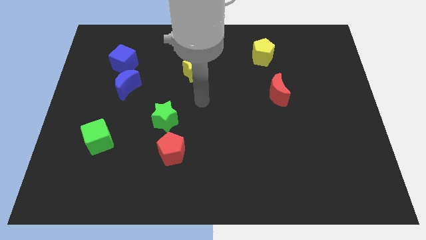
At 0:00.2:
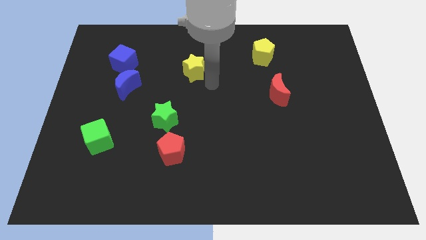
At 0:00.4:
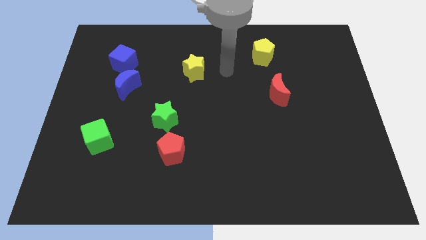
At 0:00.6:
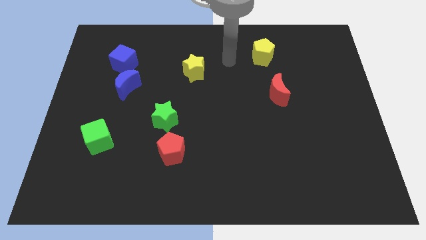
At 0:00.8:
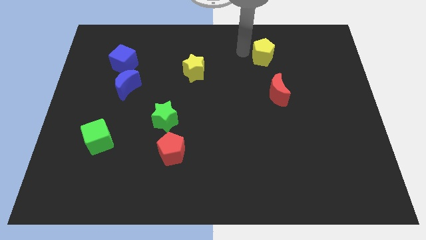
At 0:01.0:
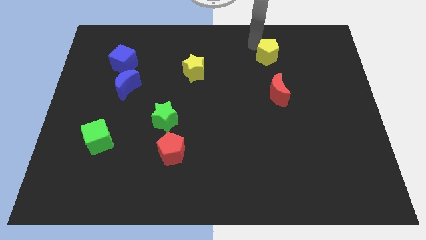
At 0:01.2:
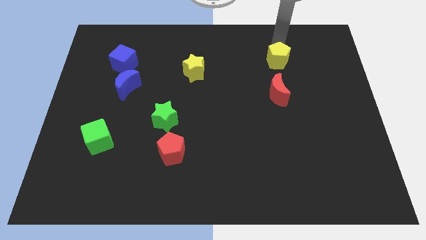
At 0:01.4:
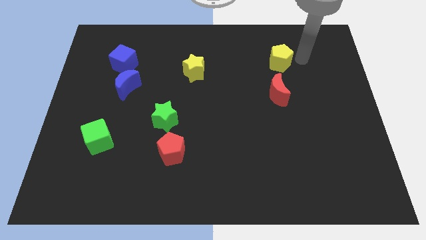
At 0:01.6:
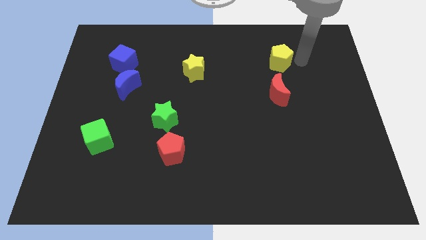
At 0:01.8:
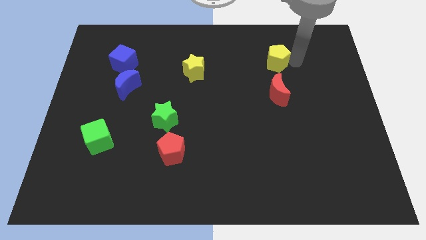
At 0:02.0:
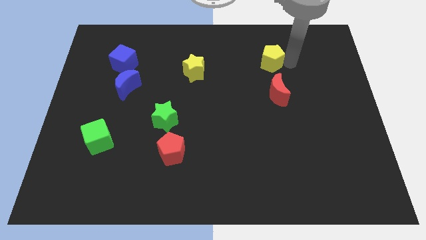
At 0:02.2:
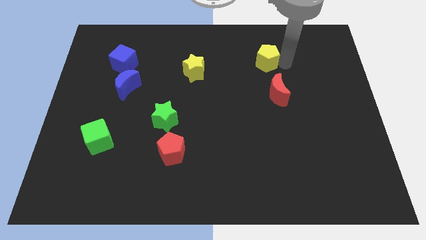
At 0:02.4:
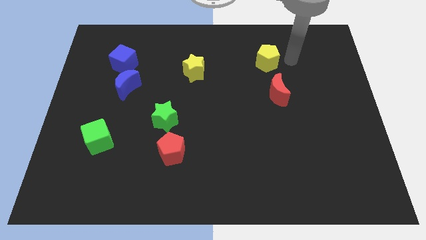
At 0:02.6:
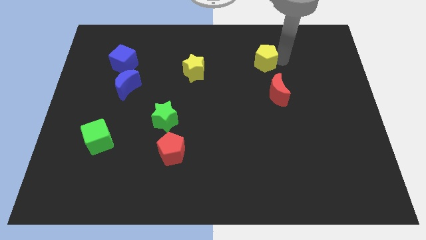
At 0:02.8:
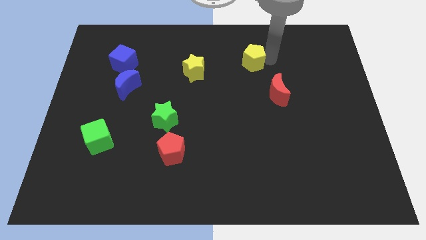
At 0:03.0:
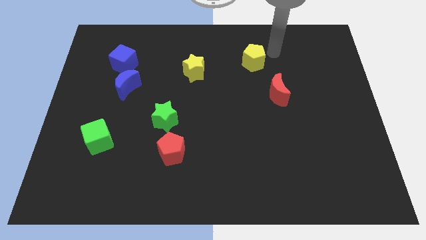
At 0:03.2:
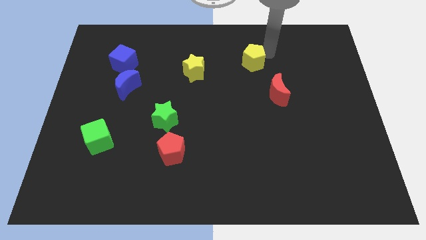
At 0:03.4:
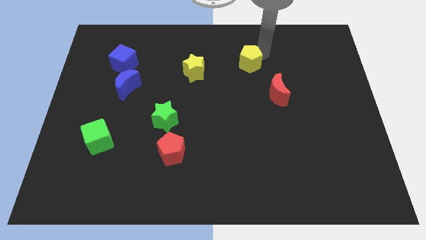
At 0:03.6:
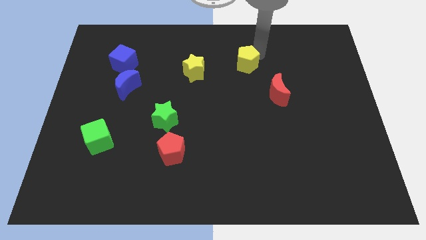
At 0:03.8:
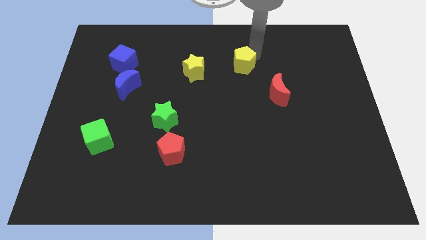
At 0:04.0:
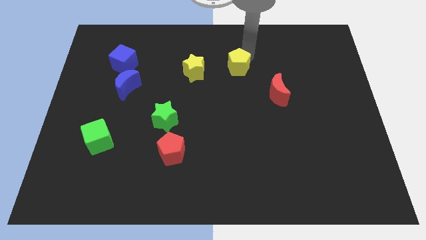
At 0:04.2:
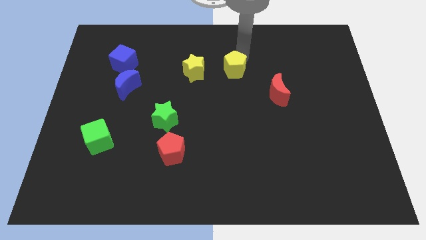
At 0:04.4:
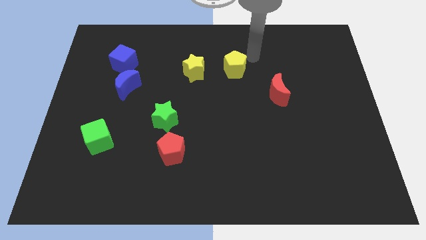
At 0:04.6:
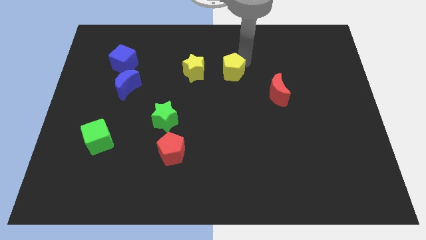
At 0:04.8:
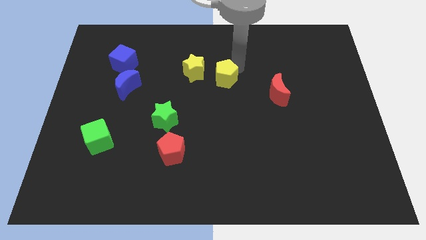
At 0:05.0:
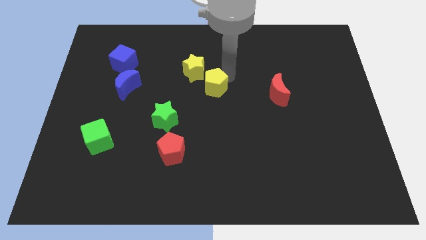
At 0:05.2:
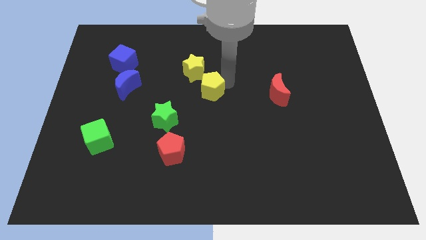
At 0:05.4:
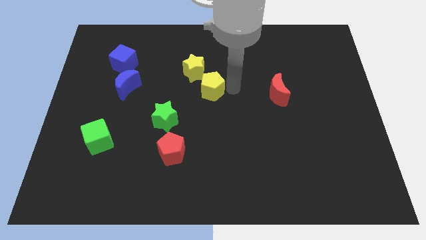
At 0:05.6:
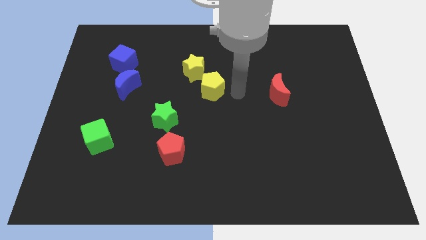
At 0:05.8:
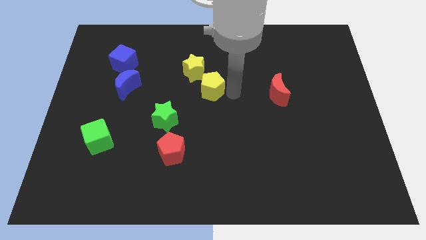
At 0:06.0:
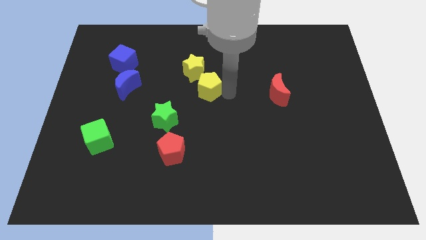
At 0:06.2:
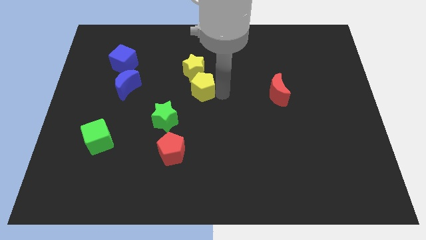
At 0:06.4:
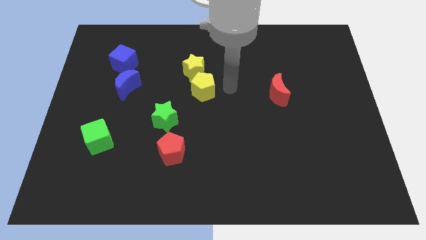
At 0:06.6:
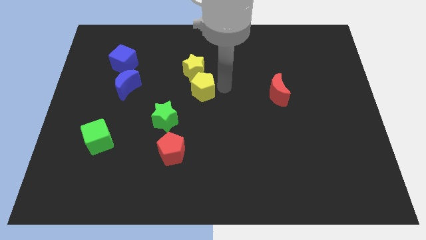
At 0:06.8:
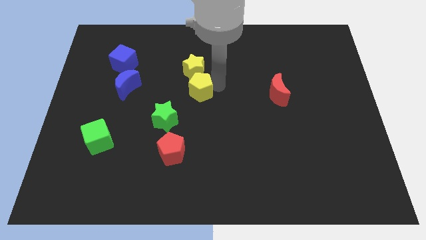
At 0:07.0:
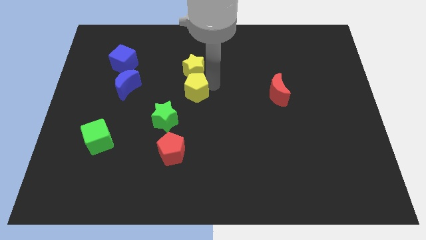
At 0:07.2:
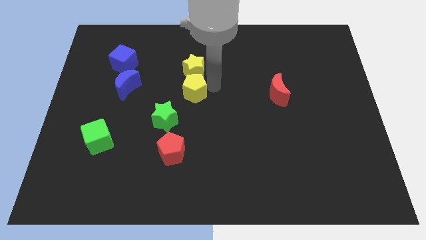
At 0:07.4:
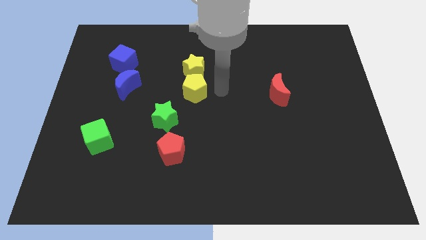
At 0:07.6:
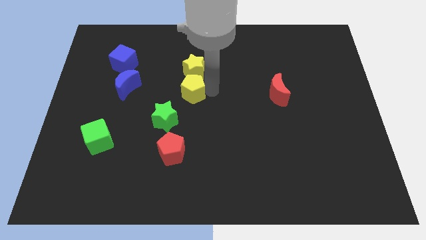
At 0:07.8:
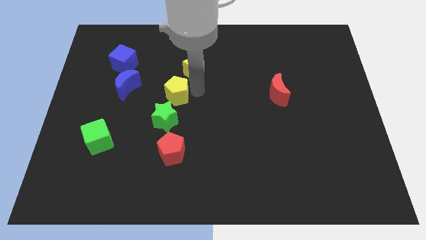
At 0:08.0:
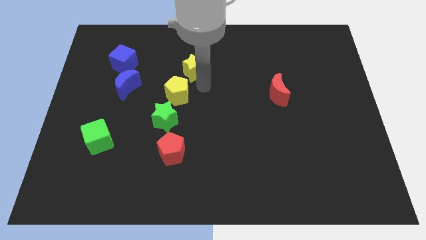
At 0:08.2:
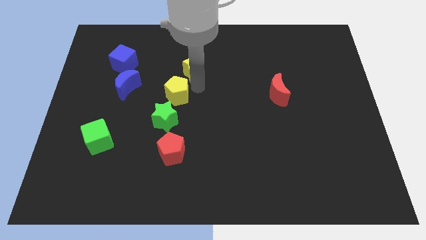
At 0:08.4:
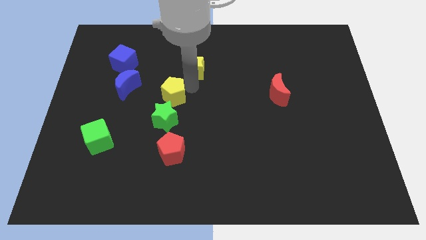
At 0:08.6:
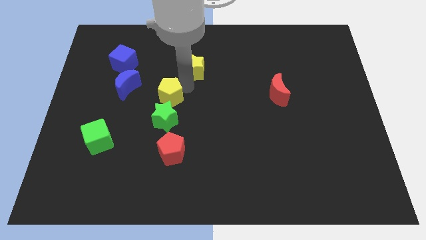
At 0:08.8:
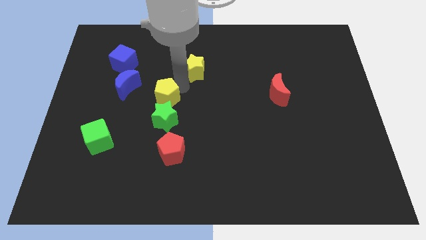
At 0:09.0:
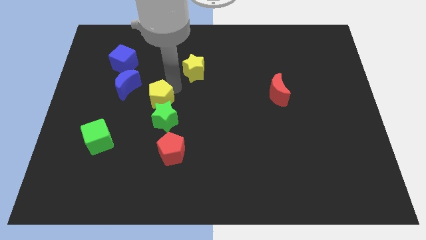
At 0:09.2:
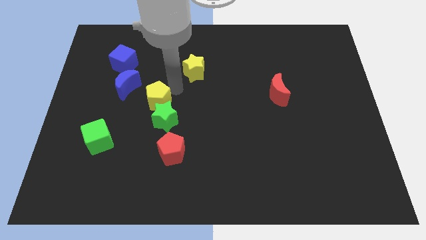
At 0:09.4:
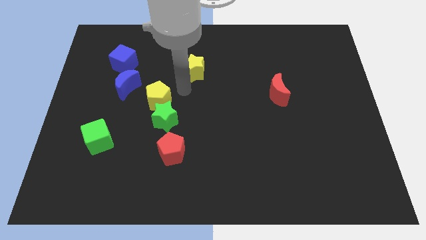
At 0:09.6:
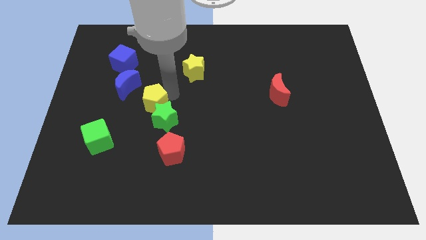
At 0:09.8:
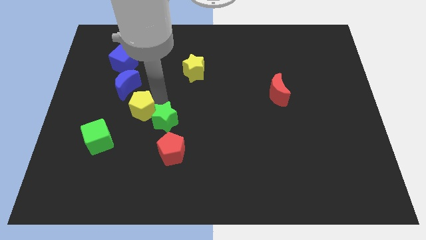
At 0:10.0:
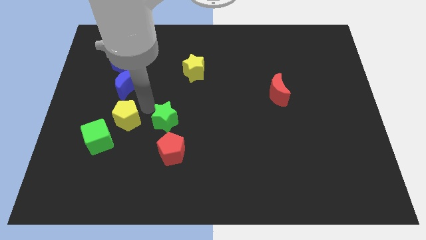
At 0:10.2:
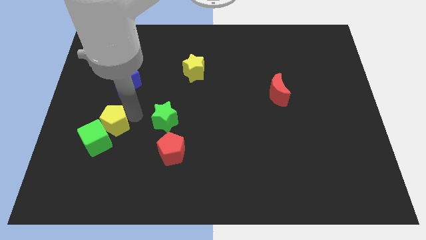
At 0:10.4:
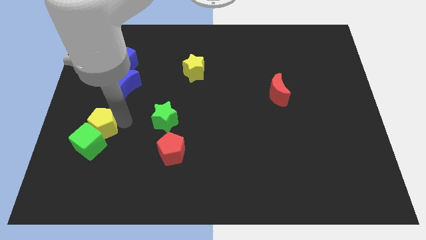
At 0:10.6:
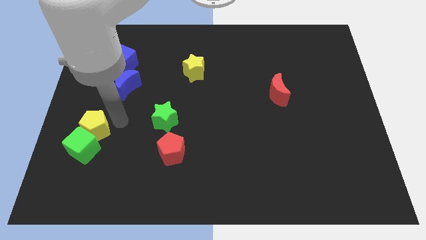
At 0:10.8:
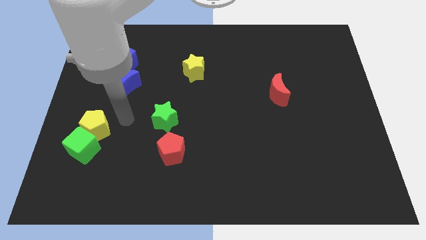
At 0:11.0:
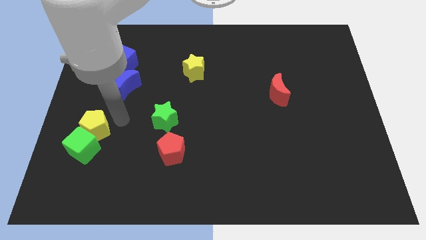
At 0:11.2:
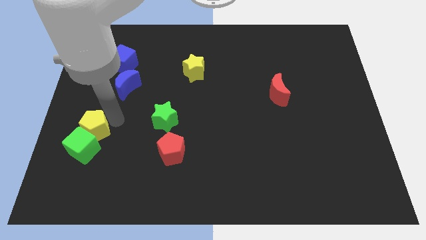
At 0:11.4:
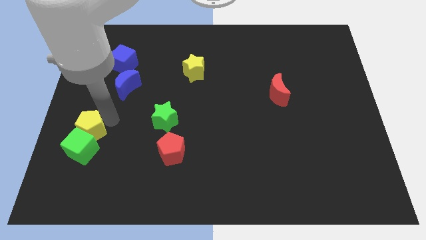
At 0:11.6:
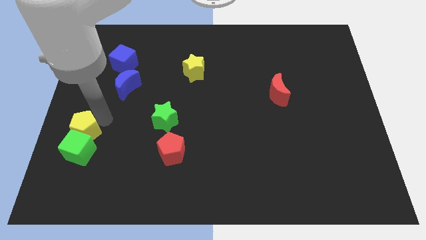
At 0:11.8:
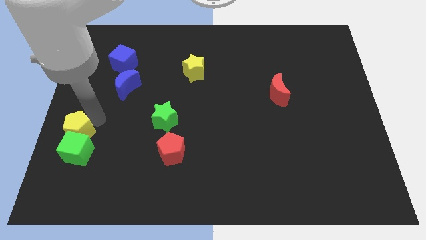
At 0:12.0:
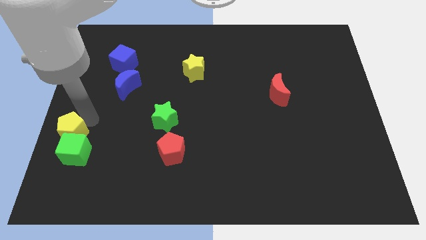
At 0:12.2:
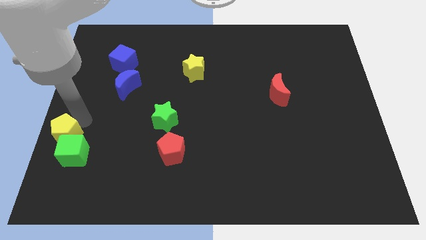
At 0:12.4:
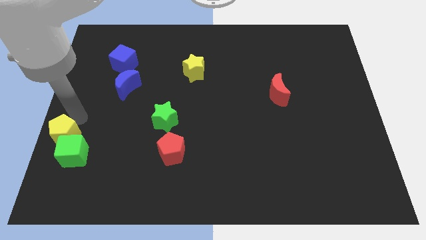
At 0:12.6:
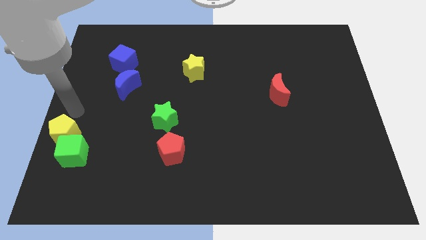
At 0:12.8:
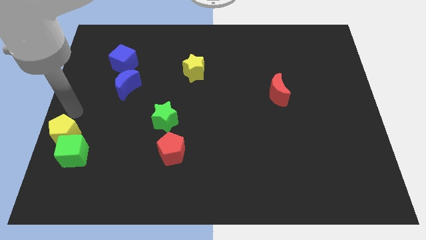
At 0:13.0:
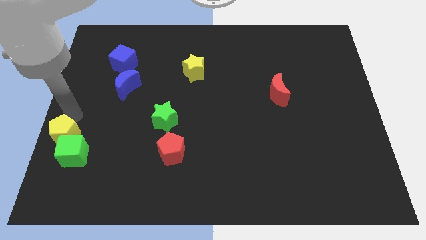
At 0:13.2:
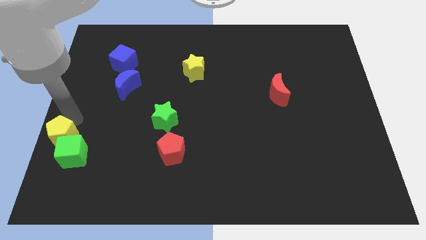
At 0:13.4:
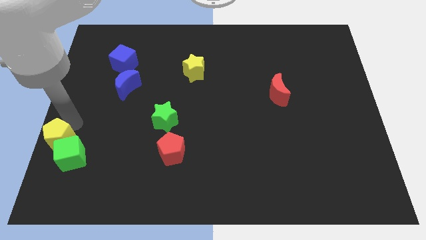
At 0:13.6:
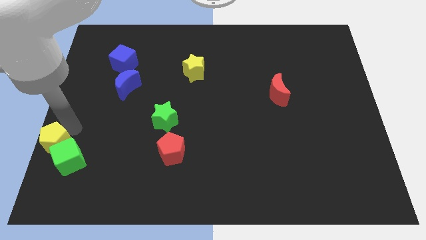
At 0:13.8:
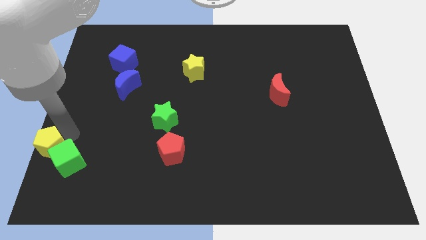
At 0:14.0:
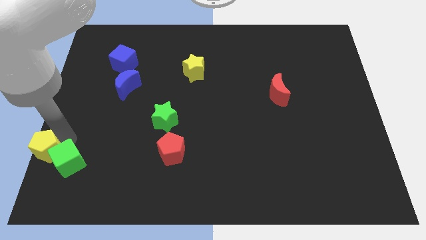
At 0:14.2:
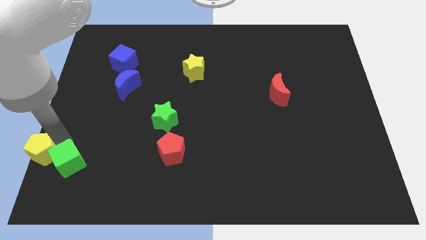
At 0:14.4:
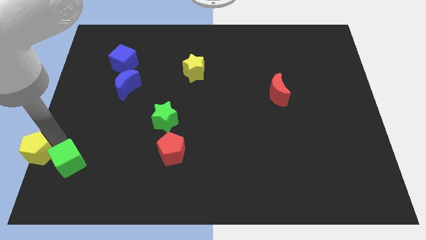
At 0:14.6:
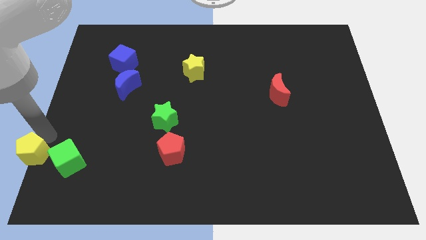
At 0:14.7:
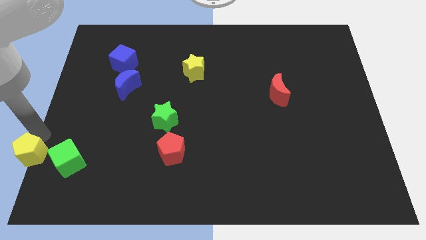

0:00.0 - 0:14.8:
push the yellow pentagon to the bottom left corner
